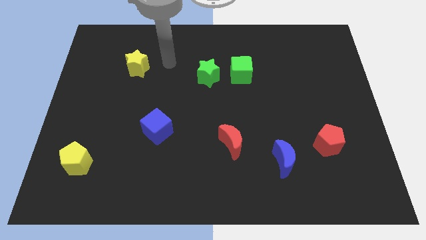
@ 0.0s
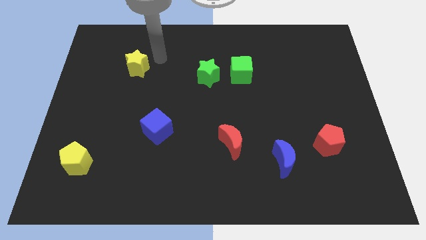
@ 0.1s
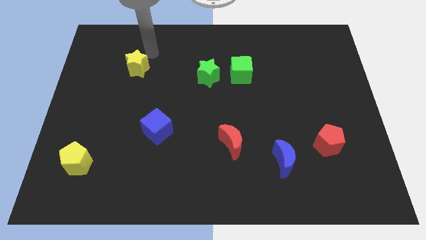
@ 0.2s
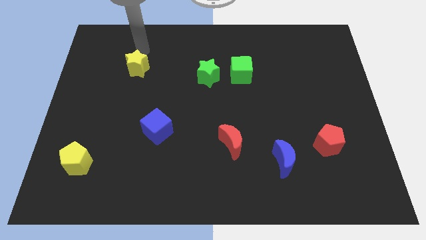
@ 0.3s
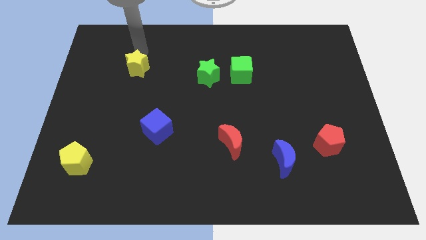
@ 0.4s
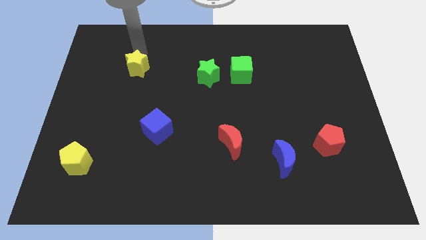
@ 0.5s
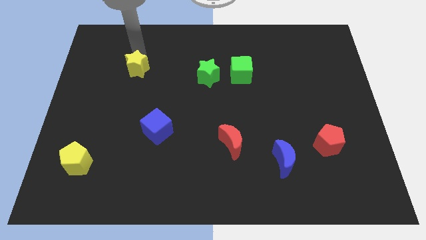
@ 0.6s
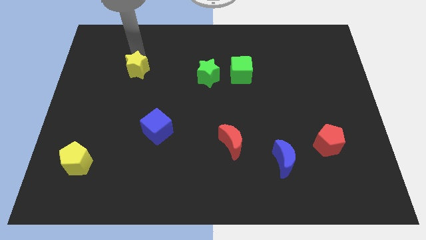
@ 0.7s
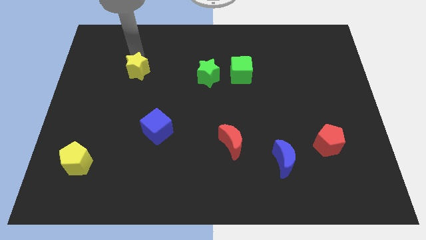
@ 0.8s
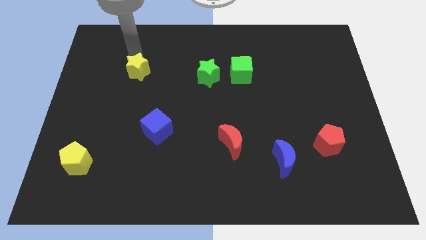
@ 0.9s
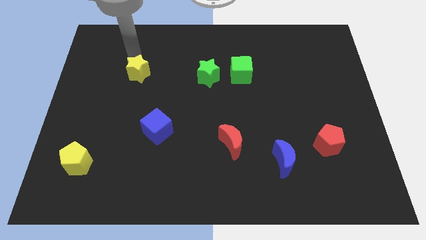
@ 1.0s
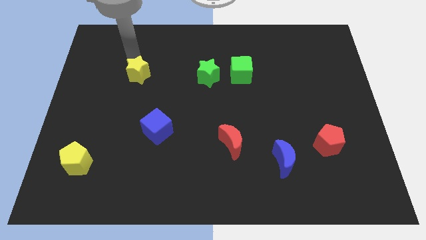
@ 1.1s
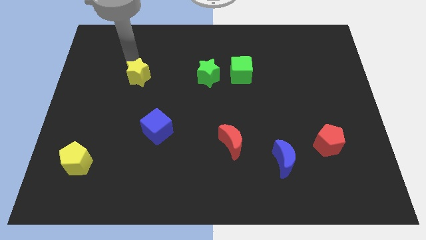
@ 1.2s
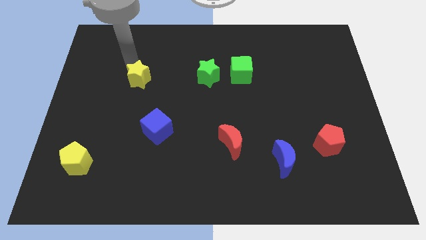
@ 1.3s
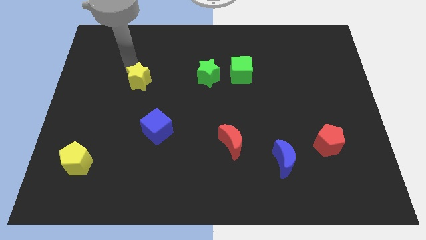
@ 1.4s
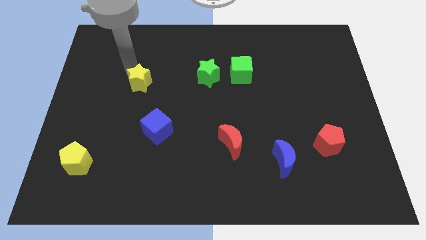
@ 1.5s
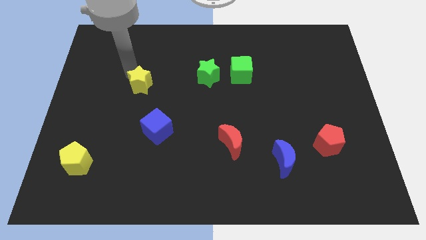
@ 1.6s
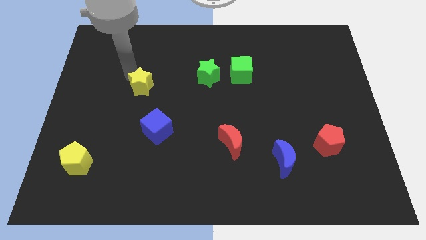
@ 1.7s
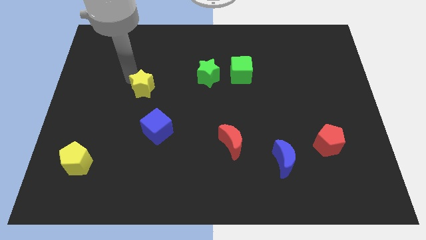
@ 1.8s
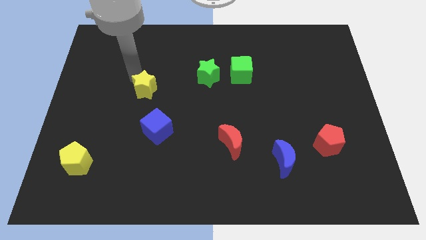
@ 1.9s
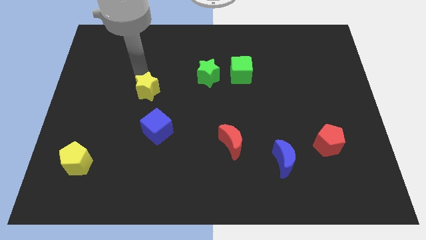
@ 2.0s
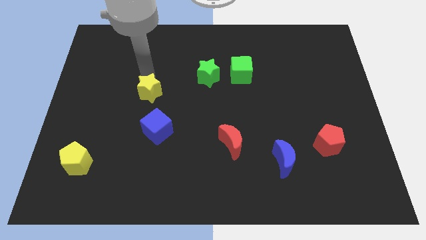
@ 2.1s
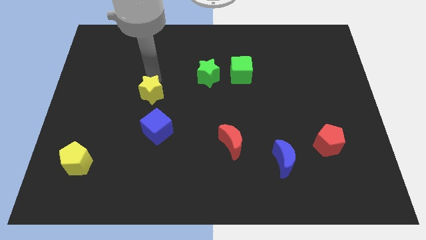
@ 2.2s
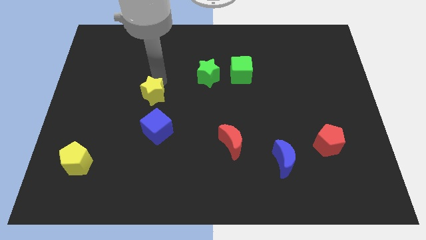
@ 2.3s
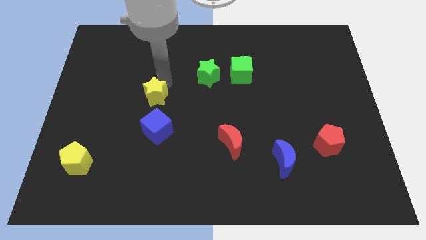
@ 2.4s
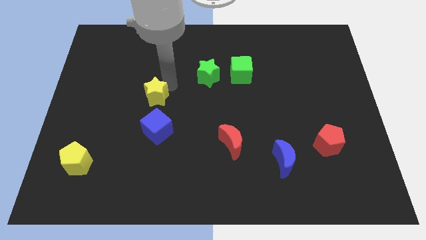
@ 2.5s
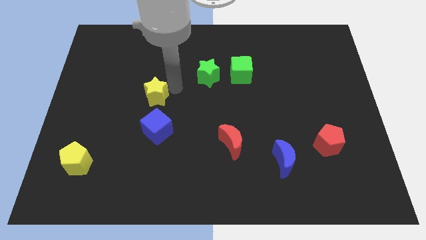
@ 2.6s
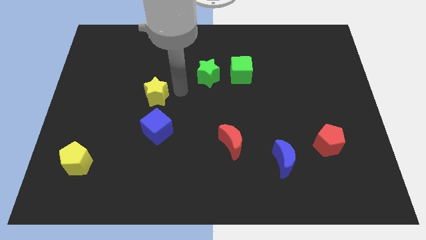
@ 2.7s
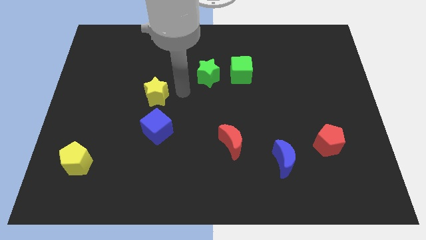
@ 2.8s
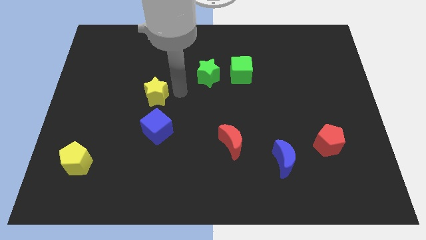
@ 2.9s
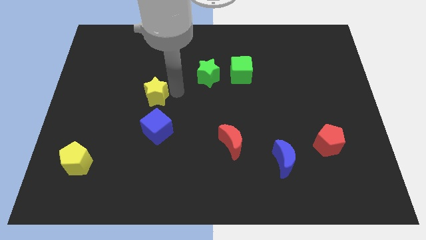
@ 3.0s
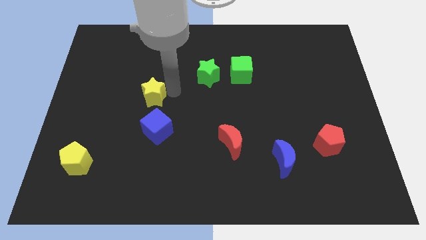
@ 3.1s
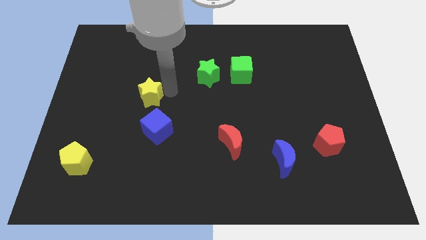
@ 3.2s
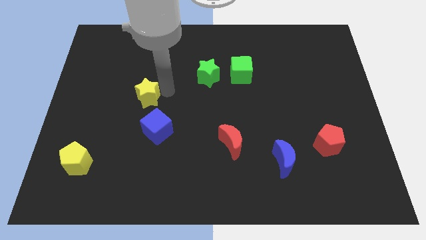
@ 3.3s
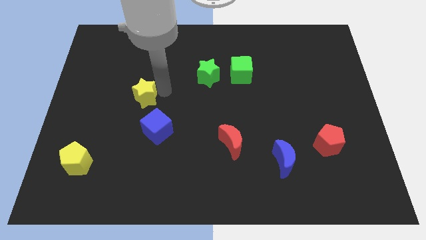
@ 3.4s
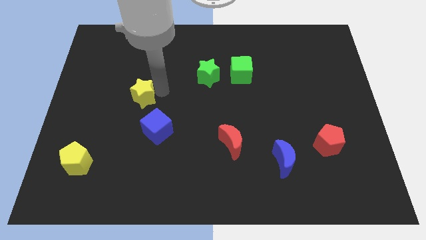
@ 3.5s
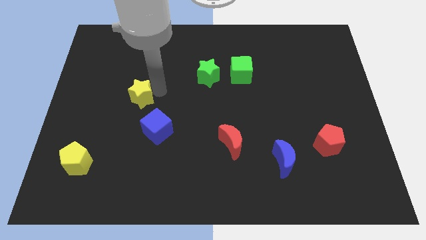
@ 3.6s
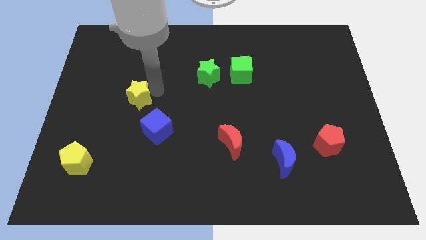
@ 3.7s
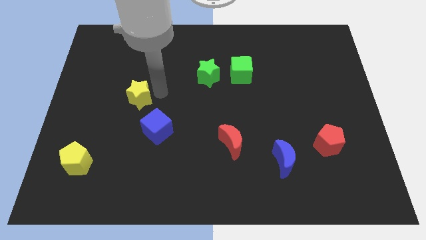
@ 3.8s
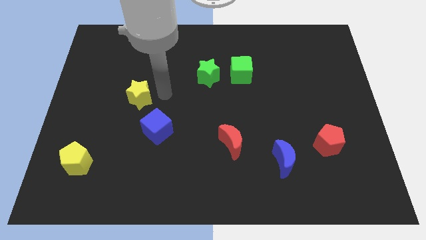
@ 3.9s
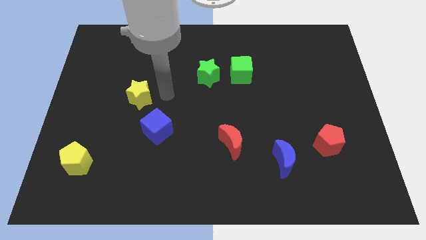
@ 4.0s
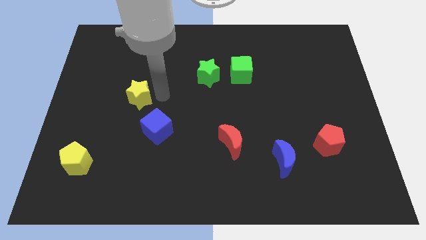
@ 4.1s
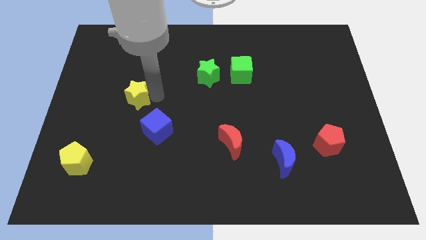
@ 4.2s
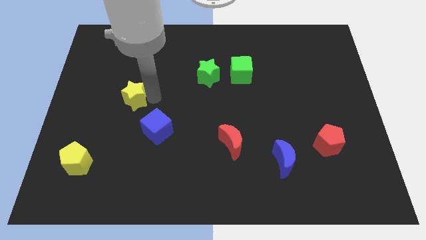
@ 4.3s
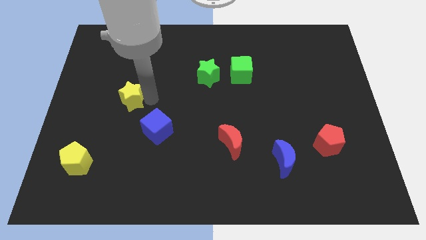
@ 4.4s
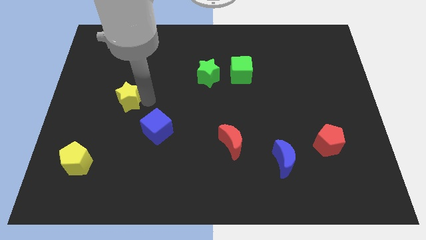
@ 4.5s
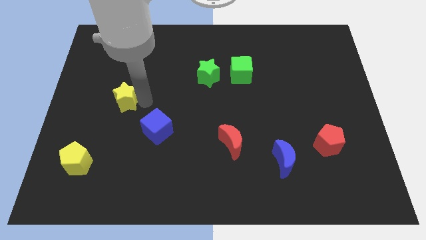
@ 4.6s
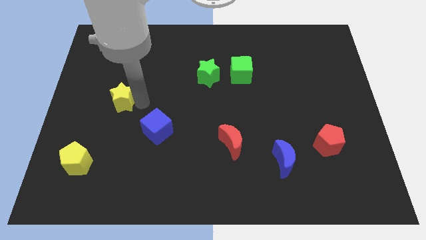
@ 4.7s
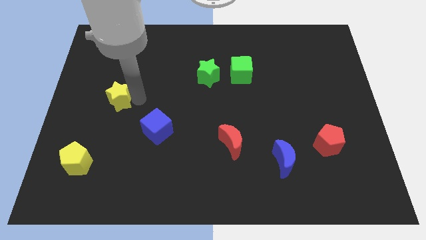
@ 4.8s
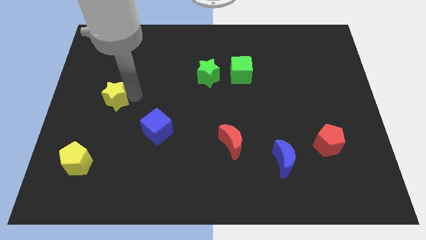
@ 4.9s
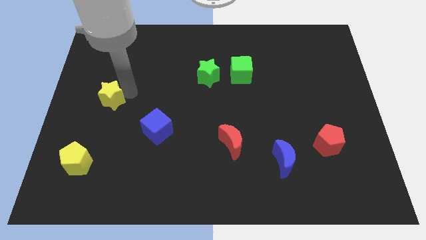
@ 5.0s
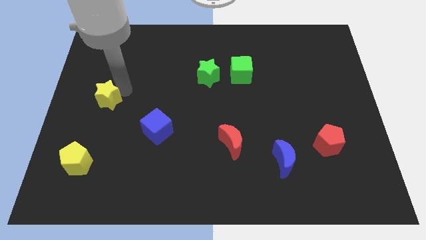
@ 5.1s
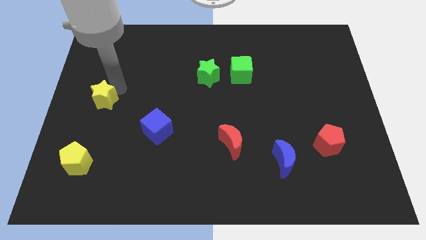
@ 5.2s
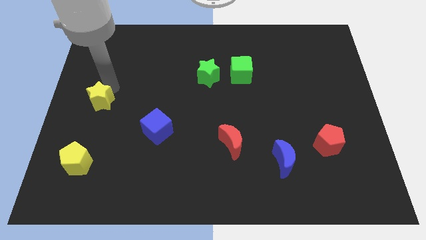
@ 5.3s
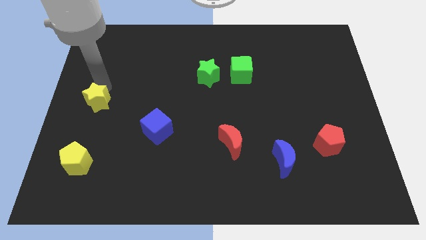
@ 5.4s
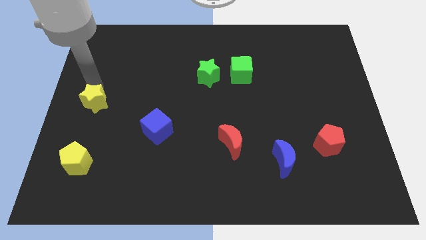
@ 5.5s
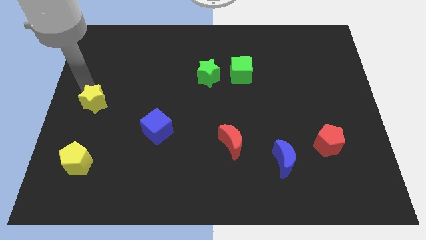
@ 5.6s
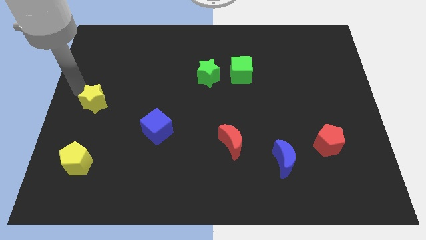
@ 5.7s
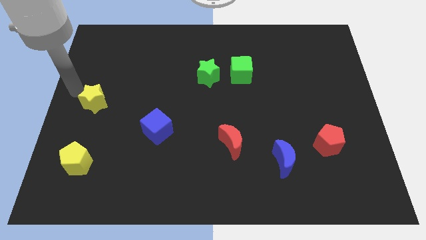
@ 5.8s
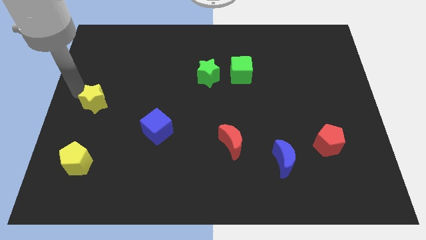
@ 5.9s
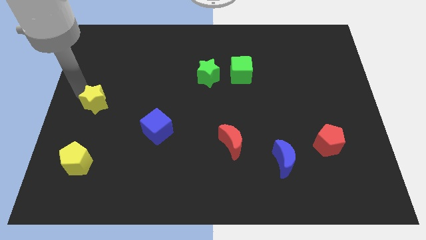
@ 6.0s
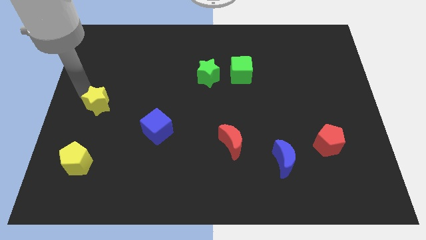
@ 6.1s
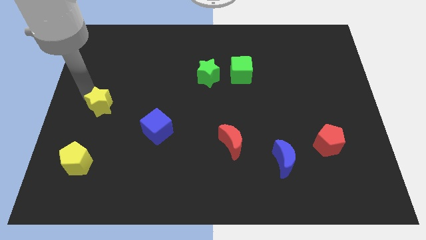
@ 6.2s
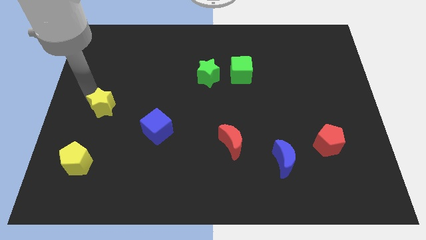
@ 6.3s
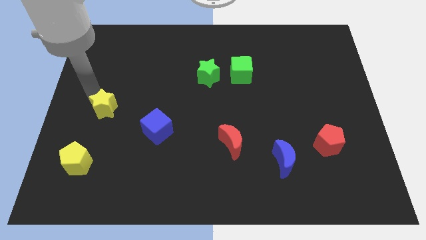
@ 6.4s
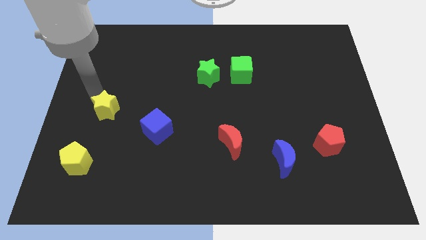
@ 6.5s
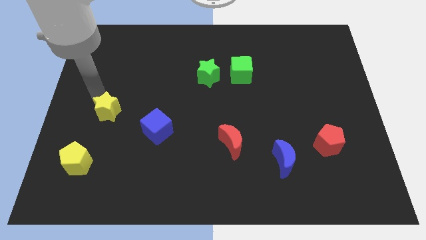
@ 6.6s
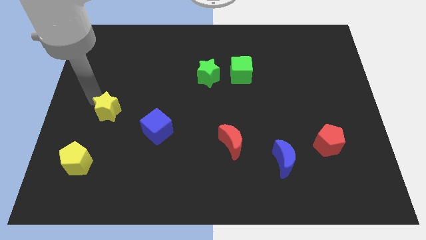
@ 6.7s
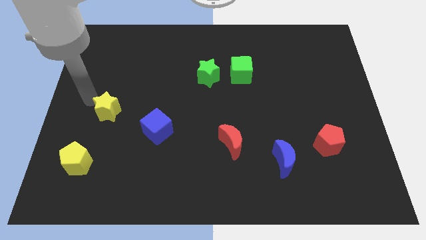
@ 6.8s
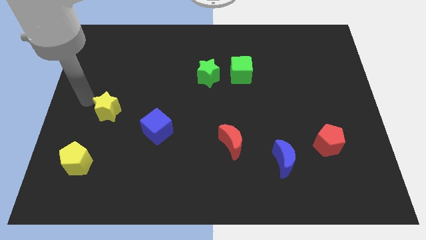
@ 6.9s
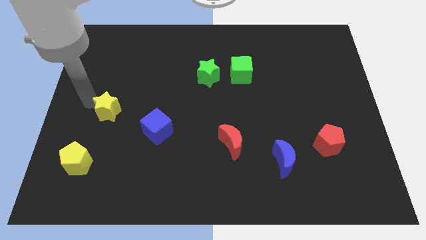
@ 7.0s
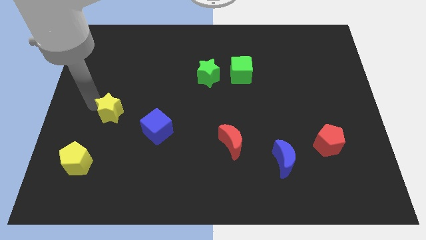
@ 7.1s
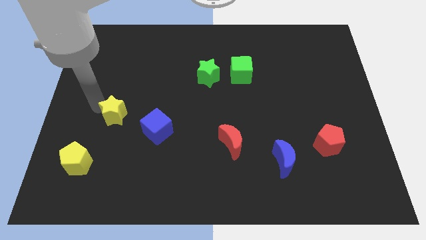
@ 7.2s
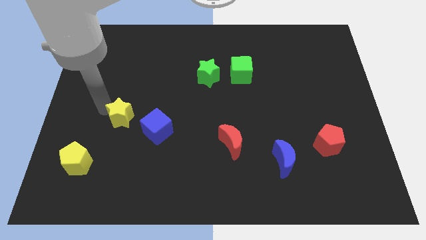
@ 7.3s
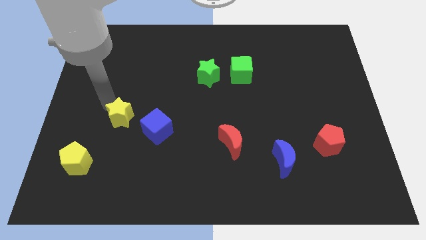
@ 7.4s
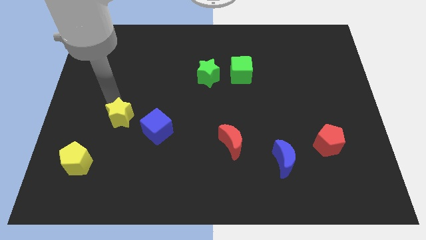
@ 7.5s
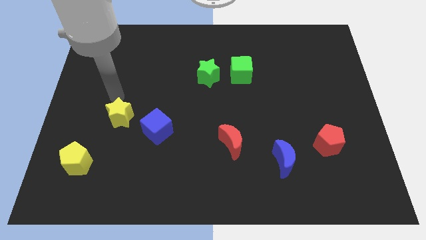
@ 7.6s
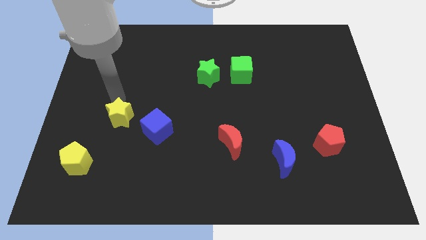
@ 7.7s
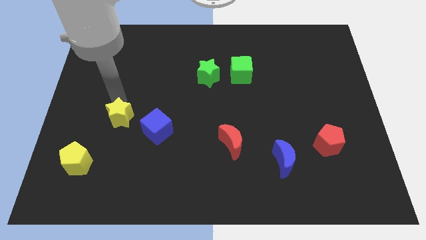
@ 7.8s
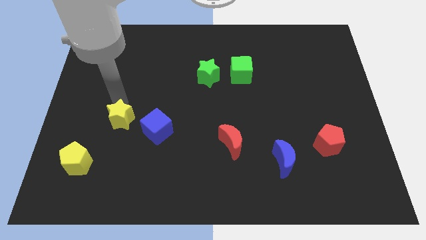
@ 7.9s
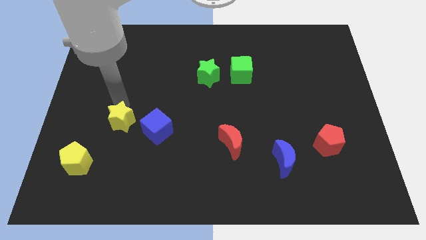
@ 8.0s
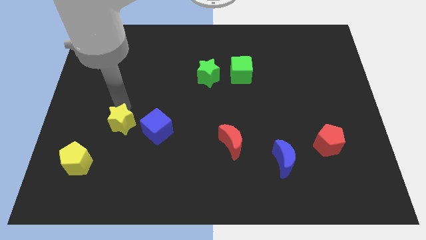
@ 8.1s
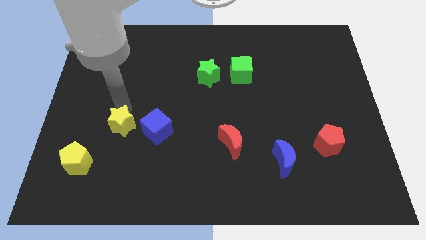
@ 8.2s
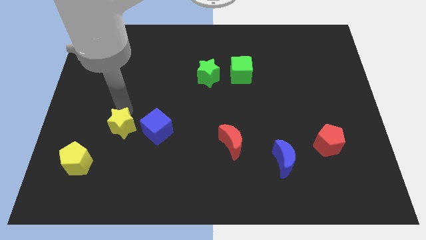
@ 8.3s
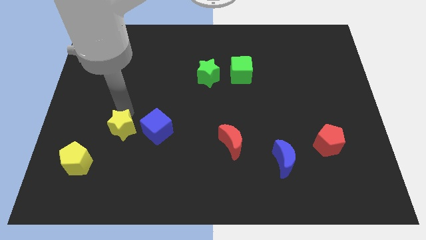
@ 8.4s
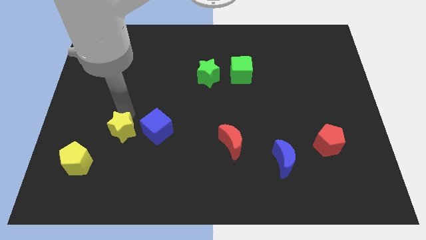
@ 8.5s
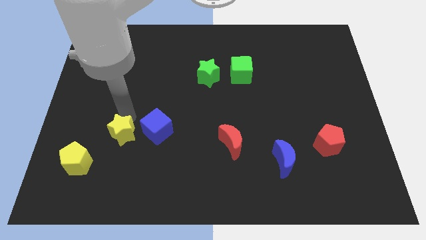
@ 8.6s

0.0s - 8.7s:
push the yellow star down

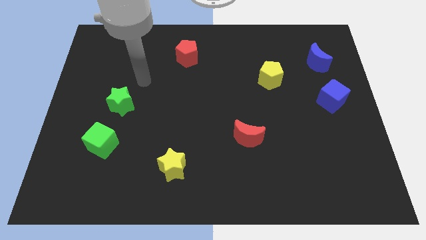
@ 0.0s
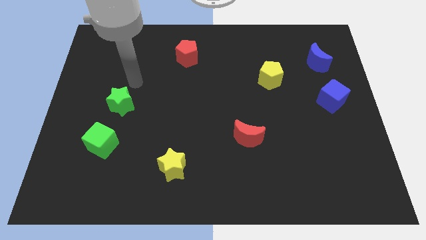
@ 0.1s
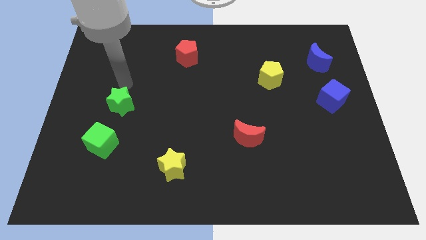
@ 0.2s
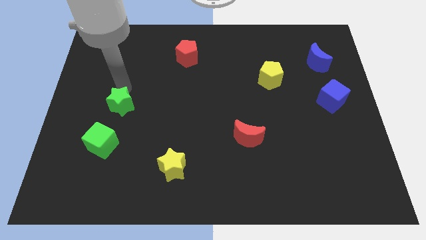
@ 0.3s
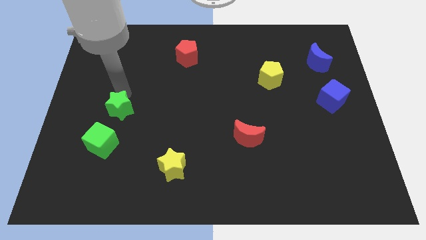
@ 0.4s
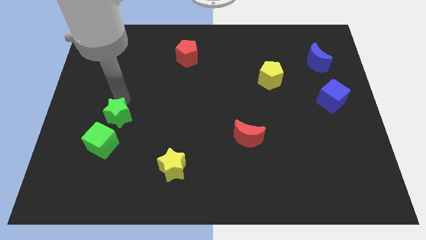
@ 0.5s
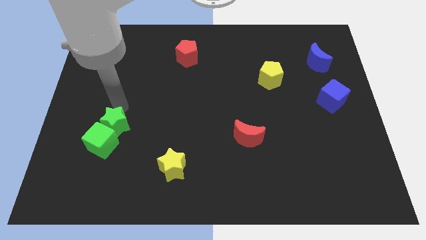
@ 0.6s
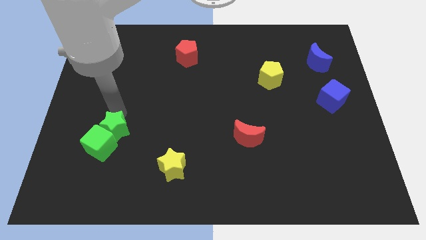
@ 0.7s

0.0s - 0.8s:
slightly push the green star down
